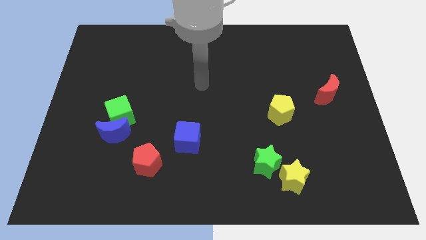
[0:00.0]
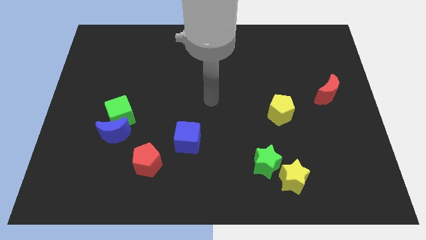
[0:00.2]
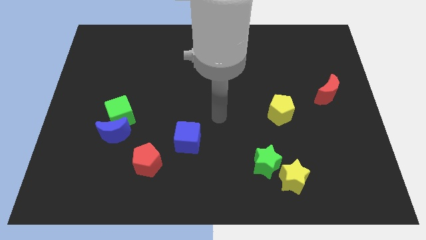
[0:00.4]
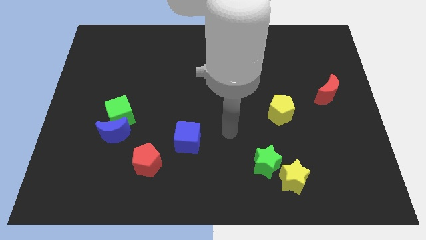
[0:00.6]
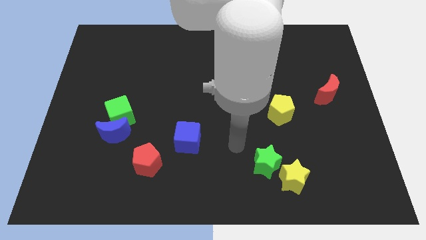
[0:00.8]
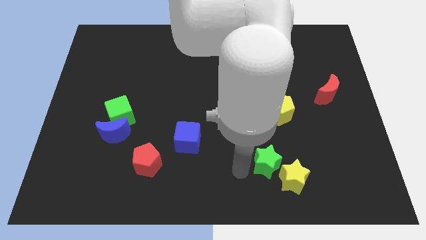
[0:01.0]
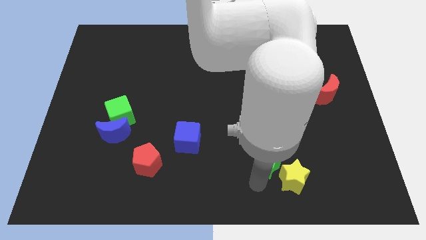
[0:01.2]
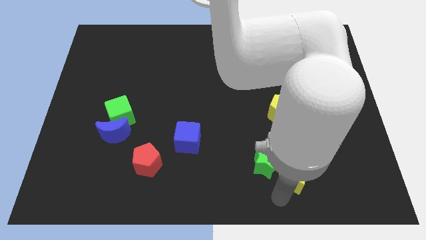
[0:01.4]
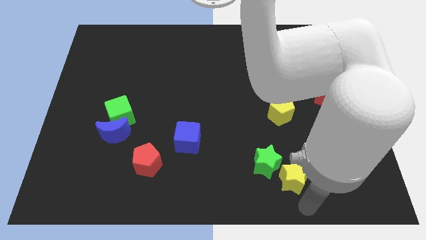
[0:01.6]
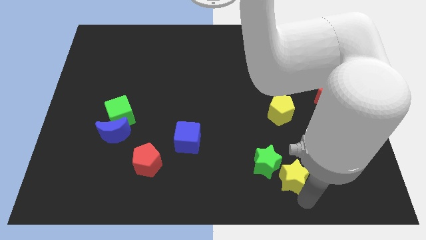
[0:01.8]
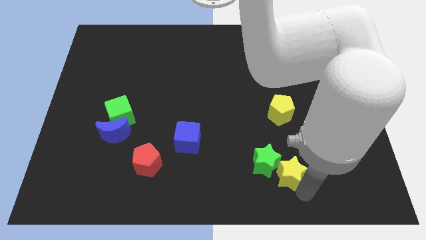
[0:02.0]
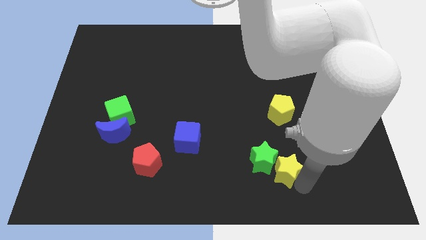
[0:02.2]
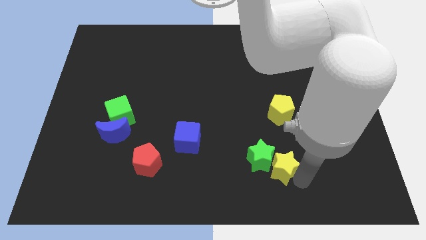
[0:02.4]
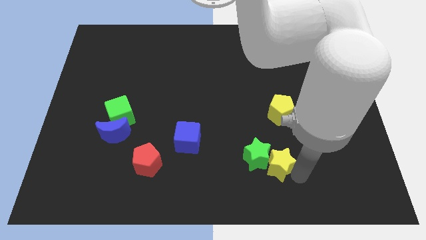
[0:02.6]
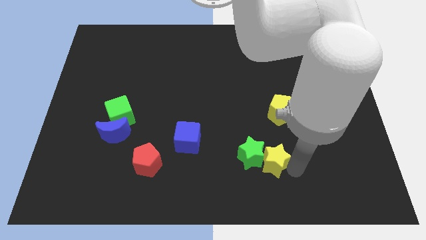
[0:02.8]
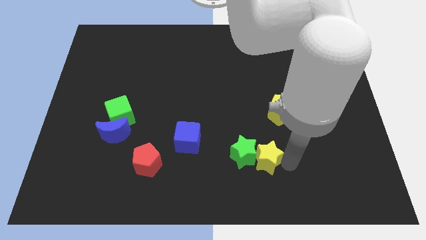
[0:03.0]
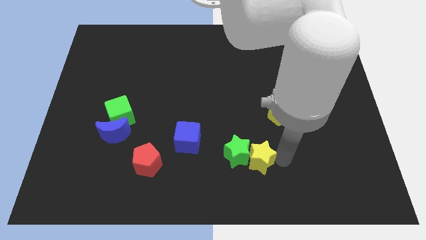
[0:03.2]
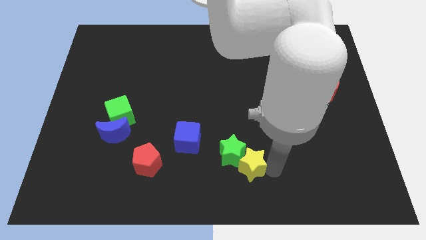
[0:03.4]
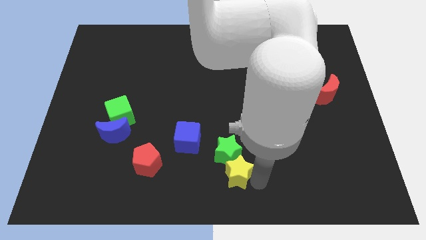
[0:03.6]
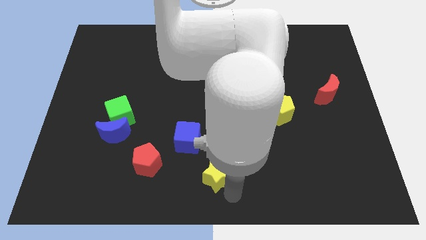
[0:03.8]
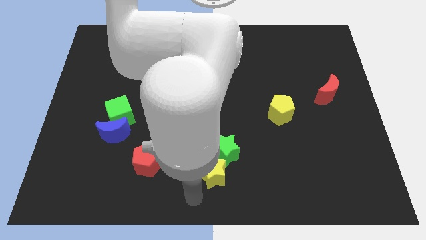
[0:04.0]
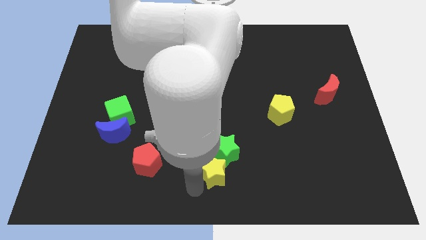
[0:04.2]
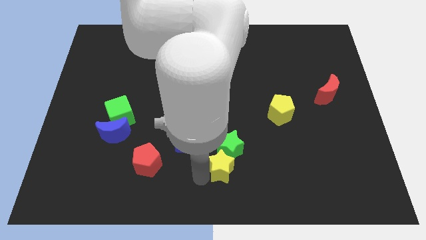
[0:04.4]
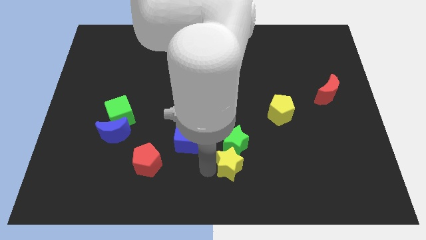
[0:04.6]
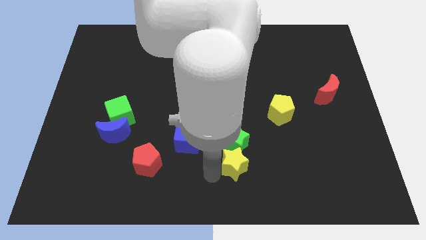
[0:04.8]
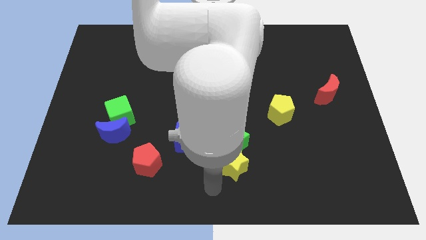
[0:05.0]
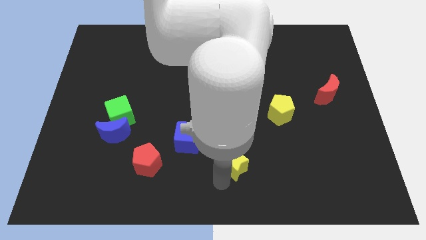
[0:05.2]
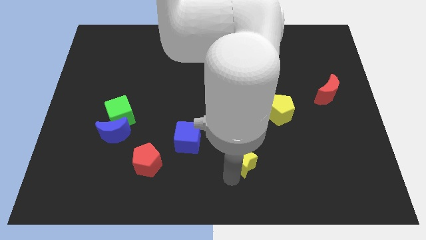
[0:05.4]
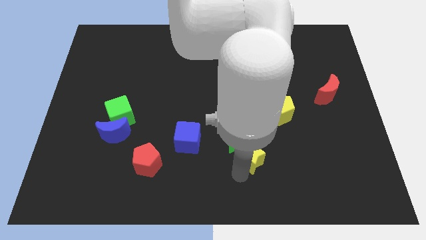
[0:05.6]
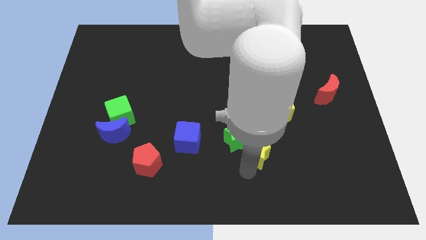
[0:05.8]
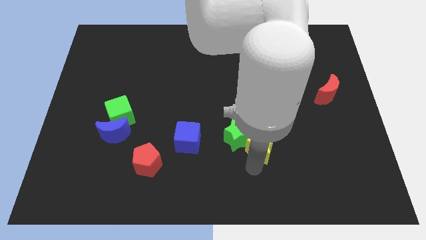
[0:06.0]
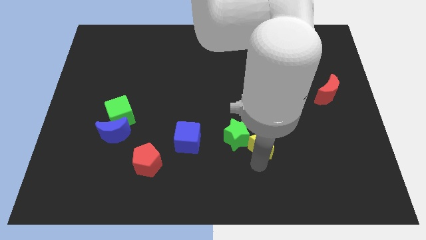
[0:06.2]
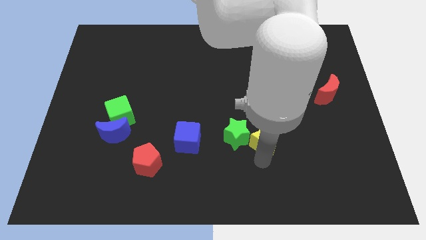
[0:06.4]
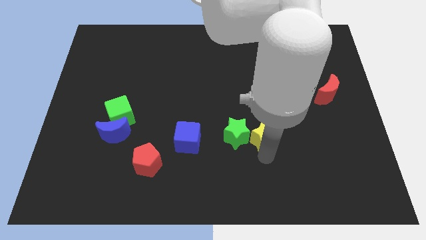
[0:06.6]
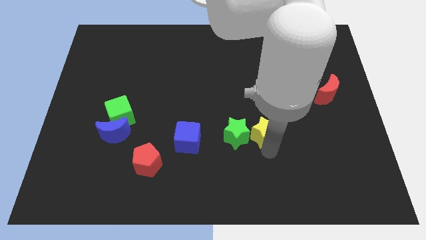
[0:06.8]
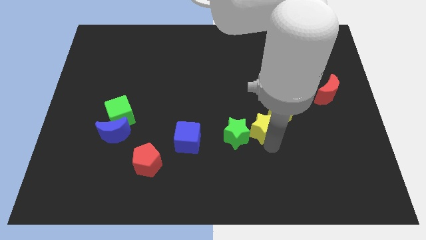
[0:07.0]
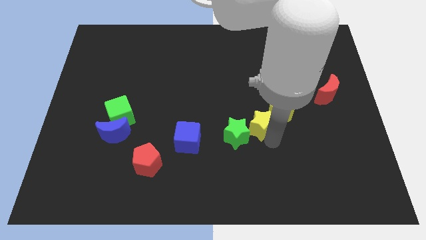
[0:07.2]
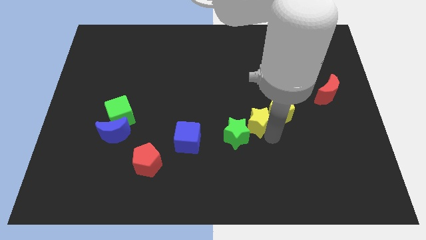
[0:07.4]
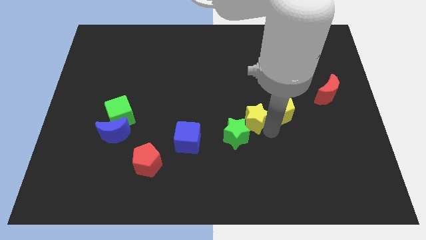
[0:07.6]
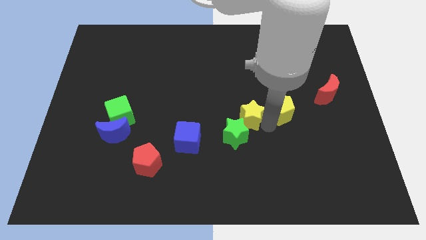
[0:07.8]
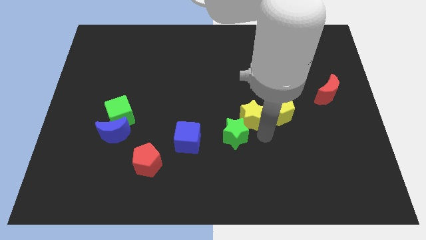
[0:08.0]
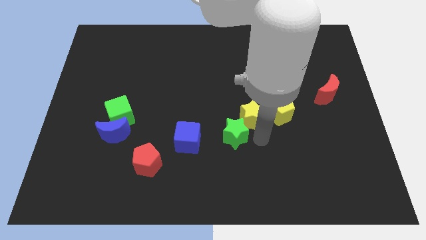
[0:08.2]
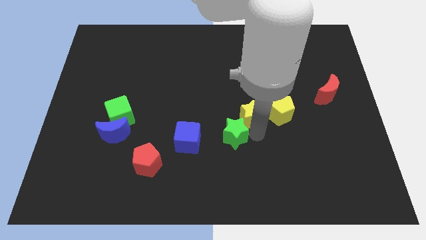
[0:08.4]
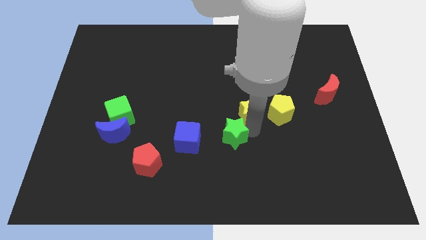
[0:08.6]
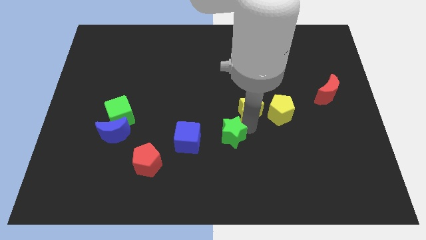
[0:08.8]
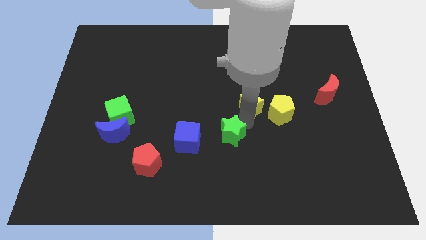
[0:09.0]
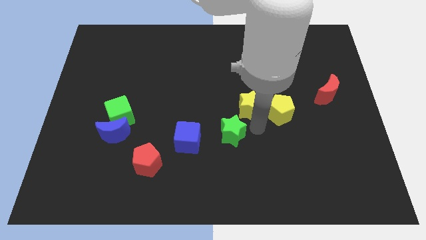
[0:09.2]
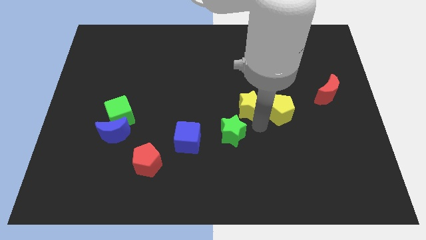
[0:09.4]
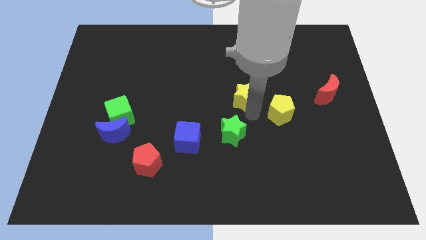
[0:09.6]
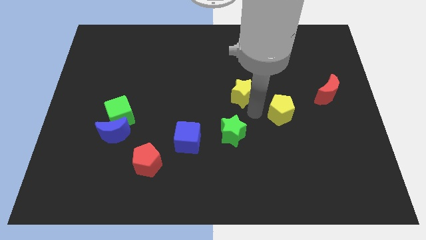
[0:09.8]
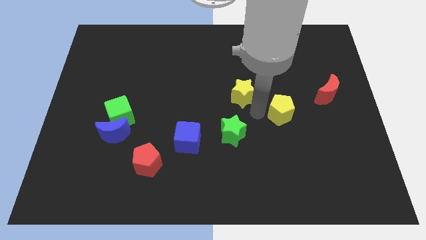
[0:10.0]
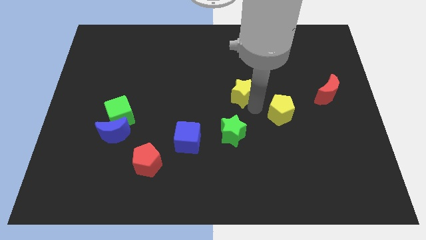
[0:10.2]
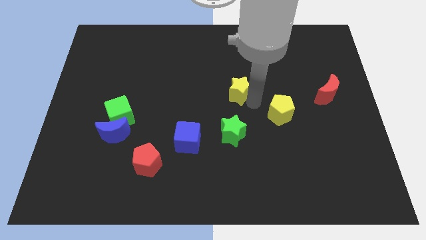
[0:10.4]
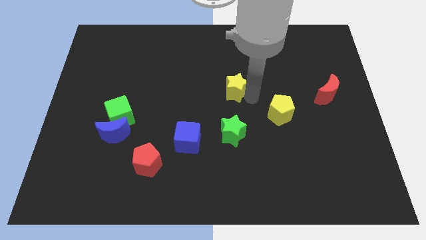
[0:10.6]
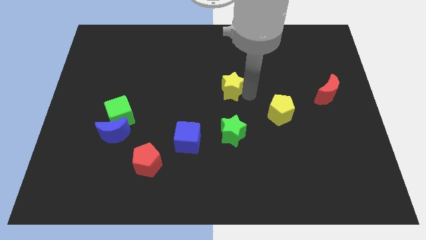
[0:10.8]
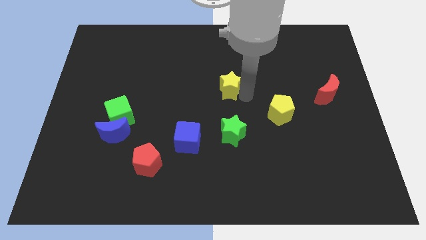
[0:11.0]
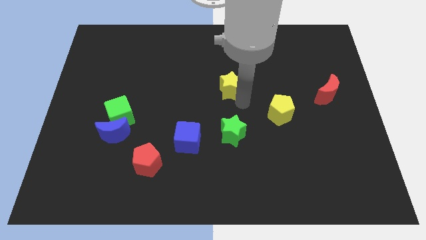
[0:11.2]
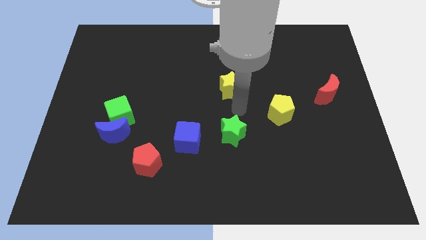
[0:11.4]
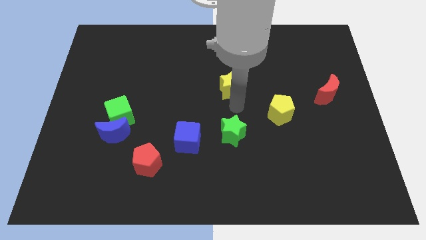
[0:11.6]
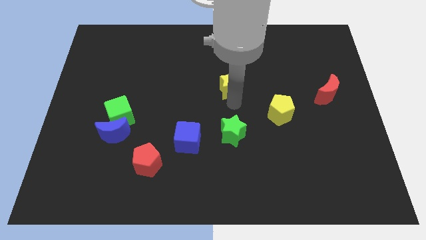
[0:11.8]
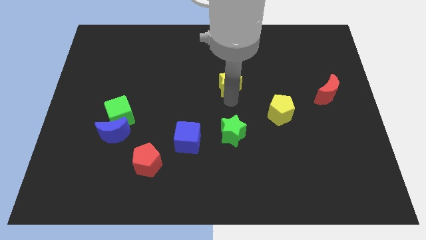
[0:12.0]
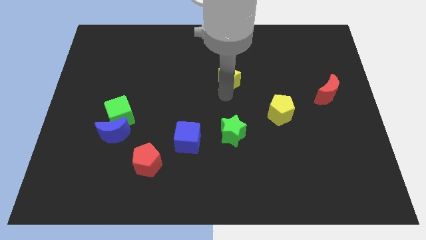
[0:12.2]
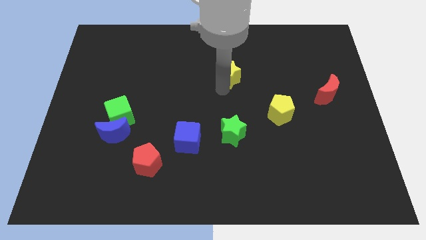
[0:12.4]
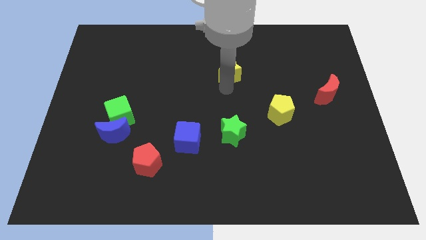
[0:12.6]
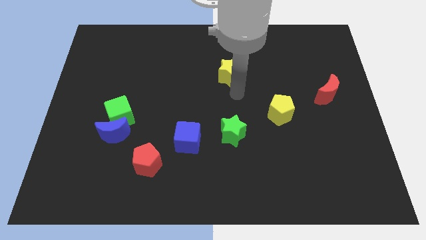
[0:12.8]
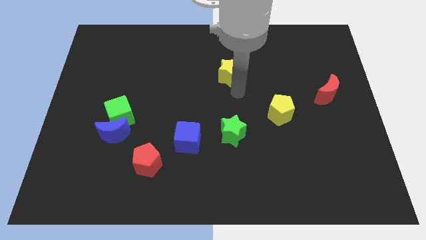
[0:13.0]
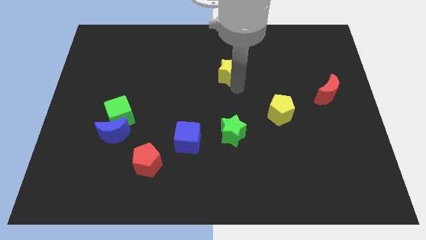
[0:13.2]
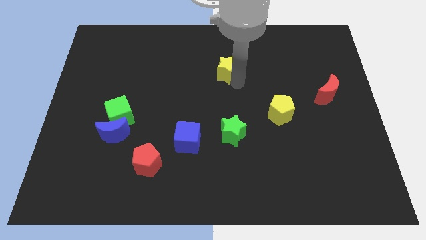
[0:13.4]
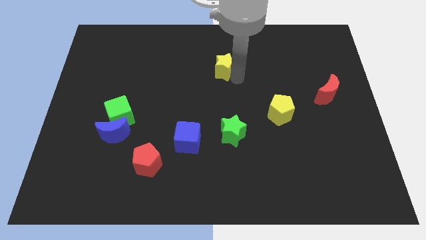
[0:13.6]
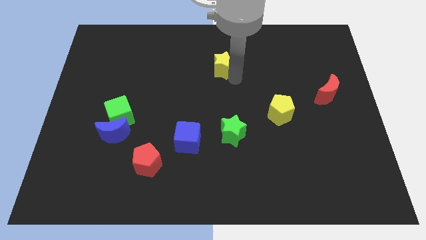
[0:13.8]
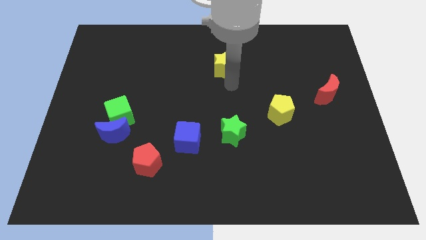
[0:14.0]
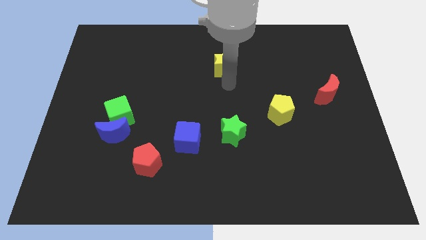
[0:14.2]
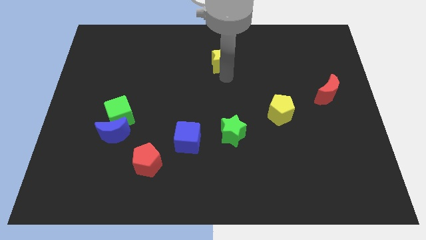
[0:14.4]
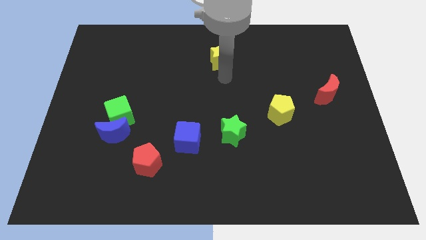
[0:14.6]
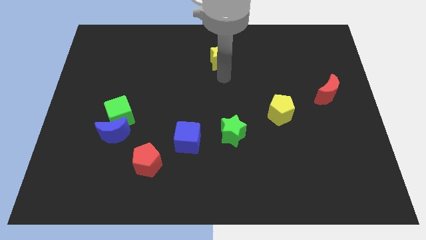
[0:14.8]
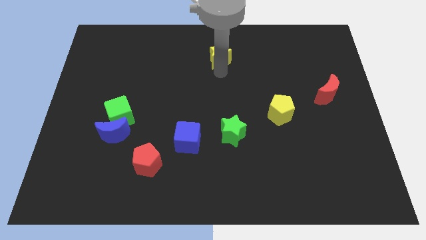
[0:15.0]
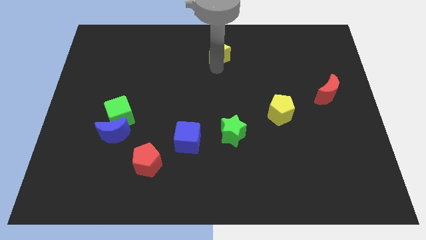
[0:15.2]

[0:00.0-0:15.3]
slide the yellow star to the towards your base
